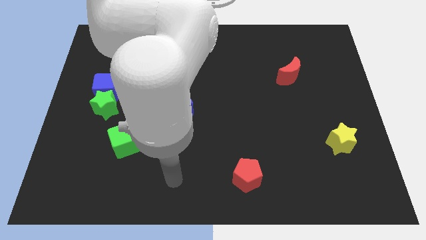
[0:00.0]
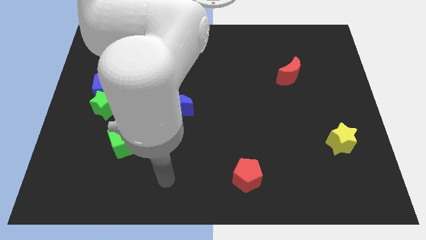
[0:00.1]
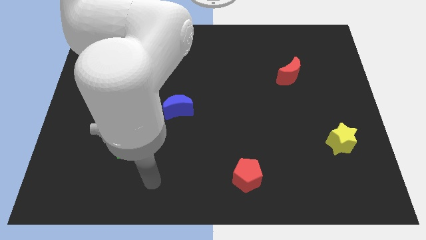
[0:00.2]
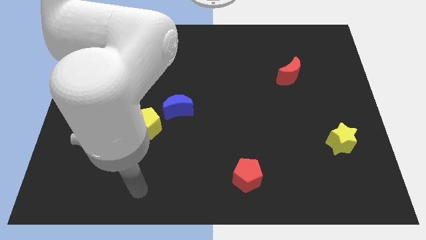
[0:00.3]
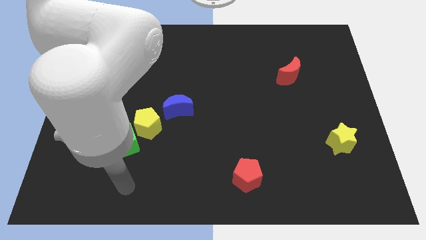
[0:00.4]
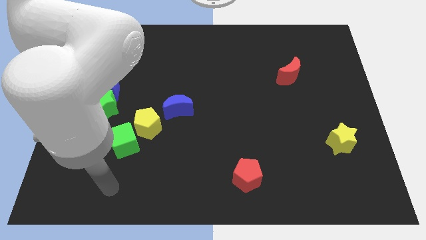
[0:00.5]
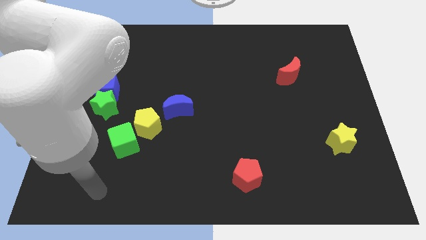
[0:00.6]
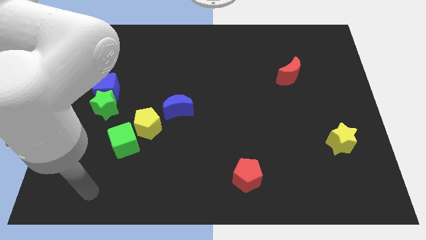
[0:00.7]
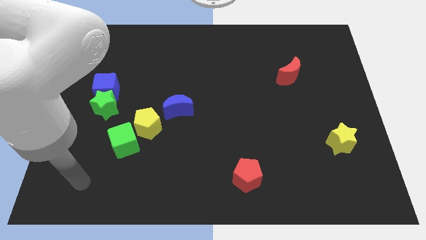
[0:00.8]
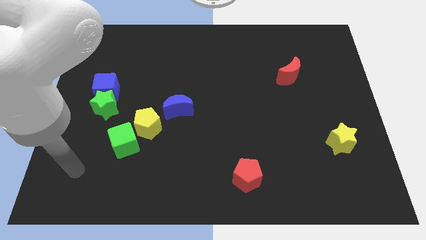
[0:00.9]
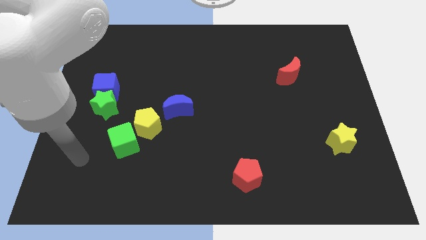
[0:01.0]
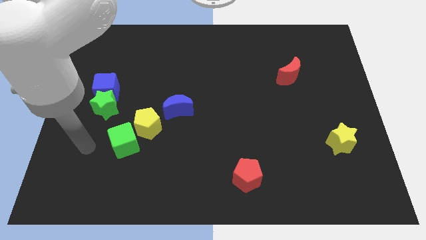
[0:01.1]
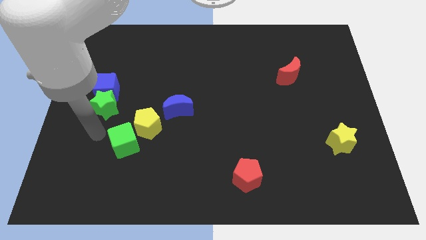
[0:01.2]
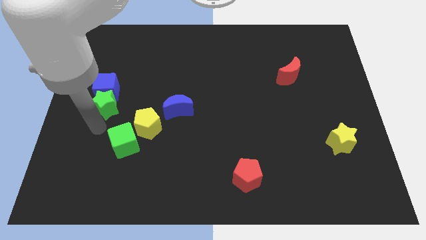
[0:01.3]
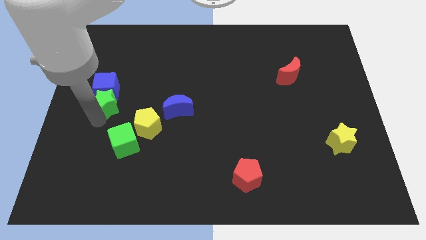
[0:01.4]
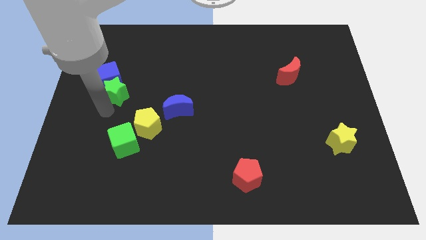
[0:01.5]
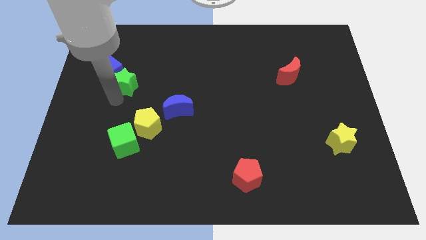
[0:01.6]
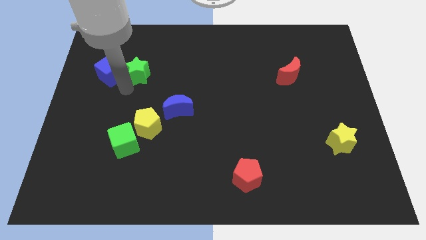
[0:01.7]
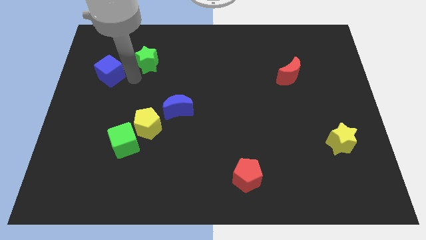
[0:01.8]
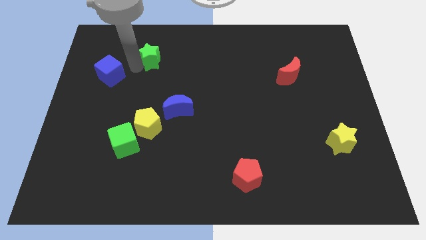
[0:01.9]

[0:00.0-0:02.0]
move the blue cube away from the green star

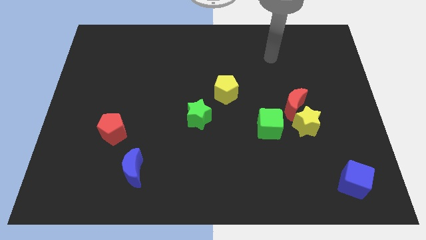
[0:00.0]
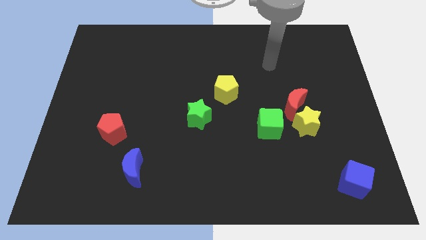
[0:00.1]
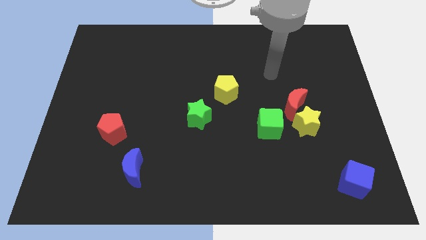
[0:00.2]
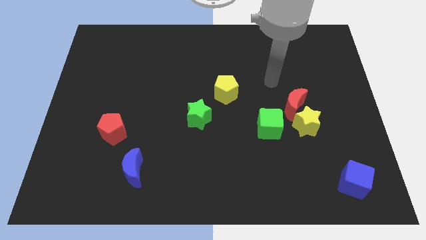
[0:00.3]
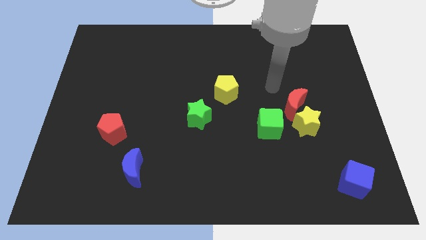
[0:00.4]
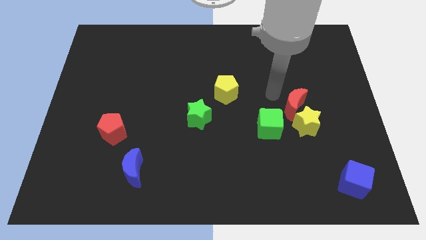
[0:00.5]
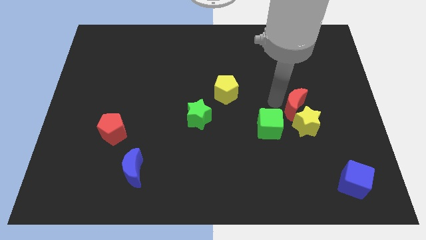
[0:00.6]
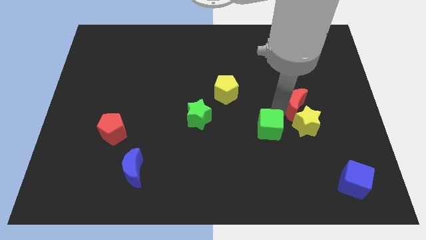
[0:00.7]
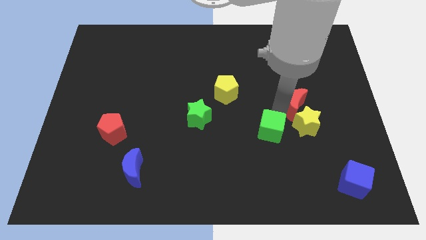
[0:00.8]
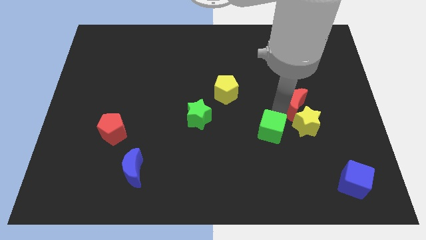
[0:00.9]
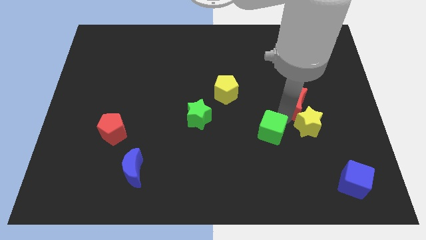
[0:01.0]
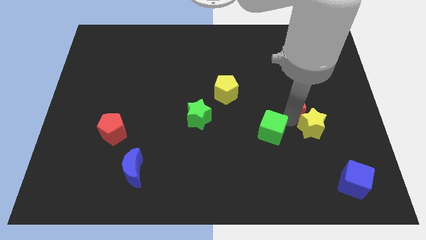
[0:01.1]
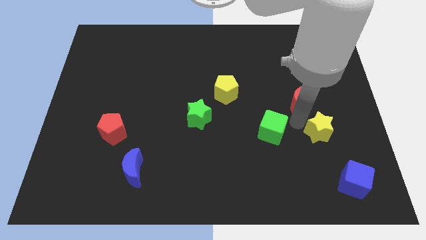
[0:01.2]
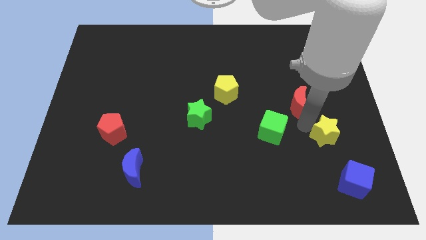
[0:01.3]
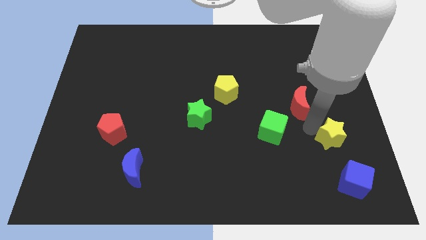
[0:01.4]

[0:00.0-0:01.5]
pull the yellow star apart from the red moon and green cube

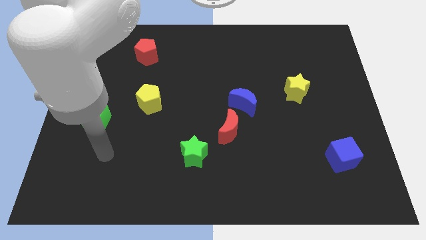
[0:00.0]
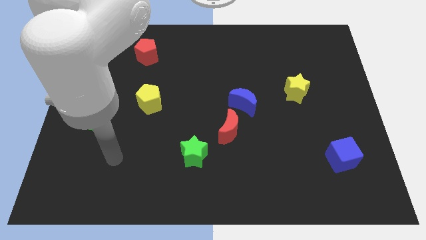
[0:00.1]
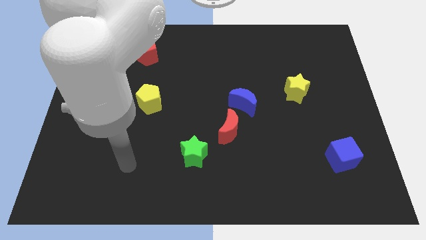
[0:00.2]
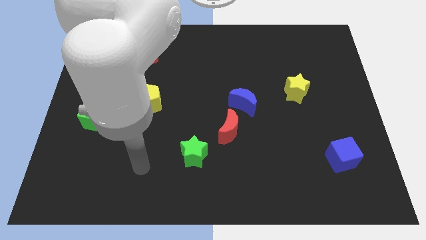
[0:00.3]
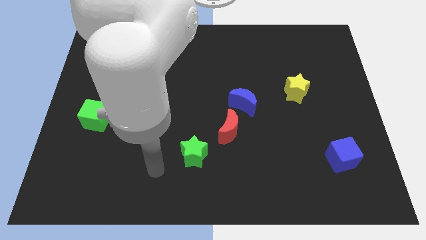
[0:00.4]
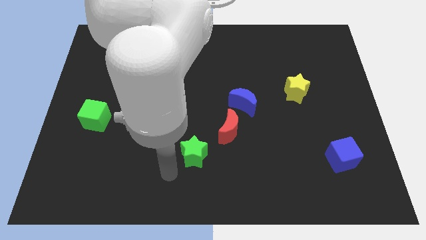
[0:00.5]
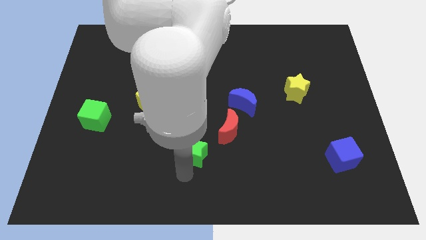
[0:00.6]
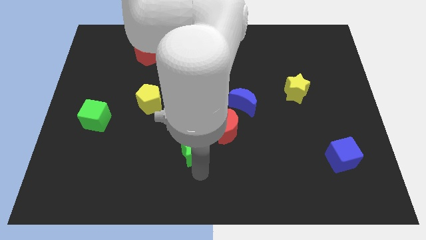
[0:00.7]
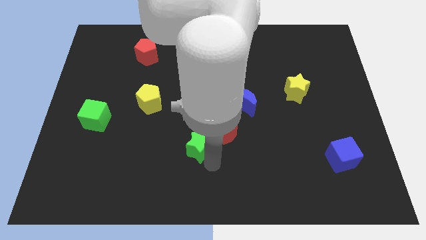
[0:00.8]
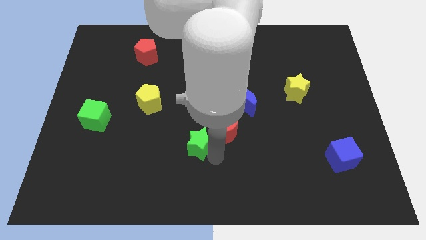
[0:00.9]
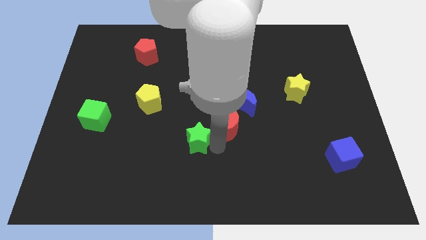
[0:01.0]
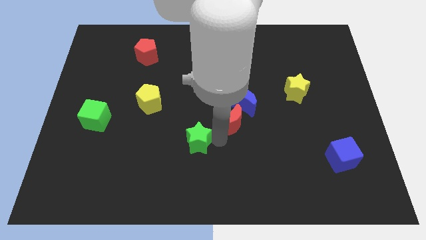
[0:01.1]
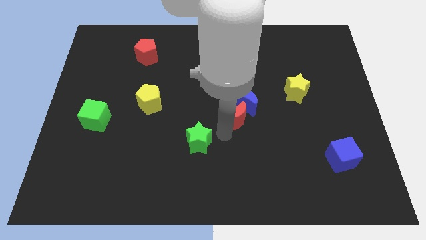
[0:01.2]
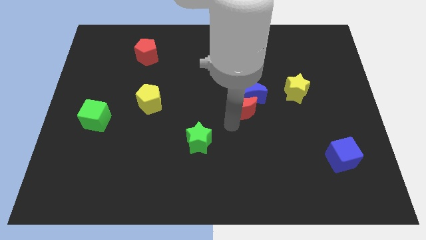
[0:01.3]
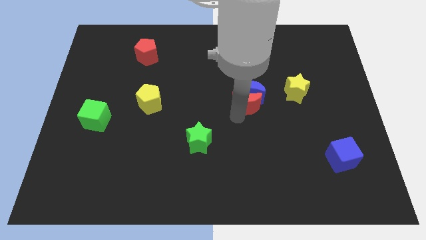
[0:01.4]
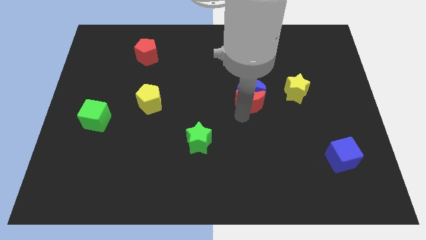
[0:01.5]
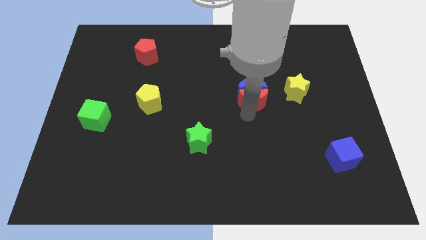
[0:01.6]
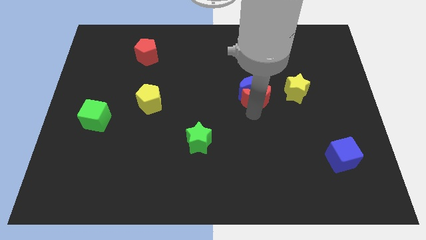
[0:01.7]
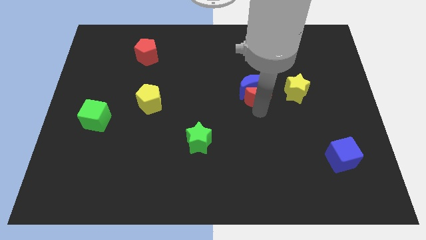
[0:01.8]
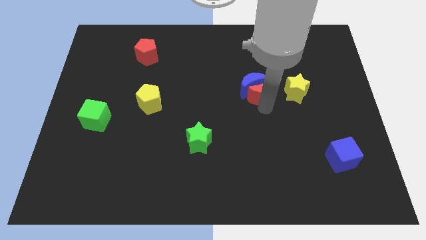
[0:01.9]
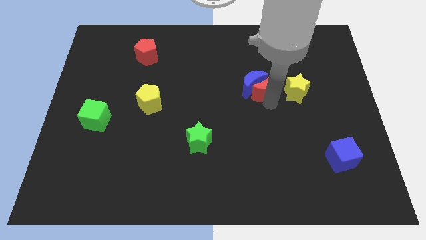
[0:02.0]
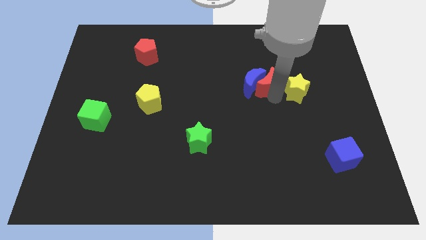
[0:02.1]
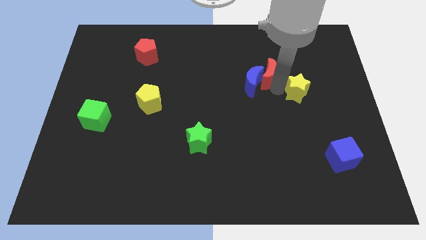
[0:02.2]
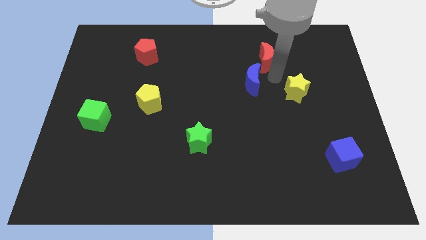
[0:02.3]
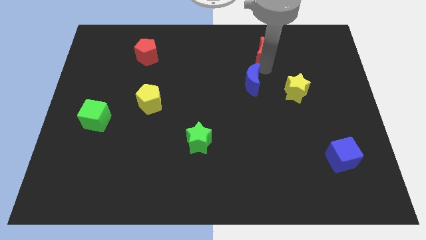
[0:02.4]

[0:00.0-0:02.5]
pull the blue moon apart from the red moon

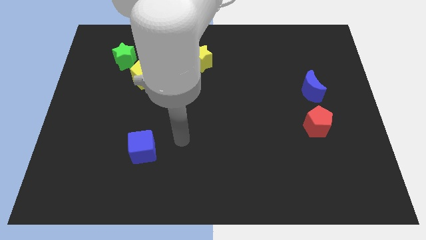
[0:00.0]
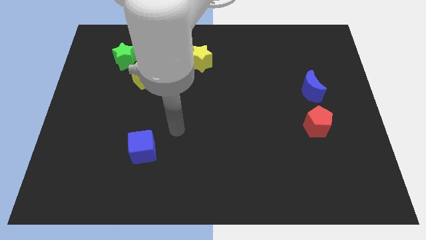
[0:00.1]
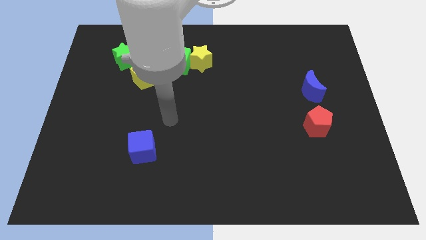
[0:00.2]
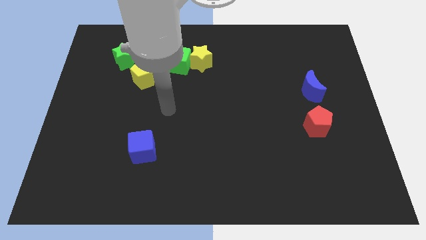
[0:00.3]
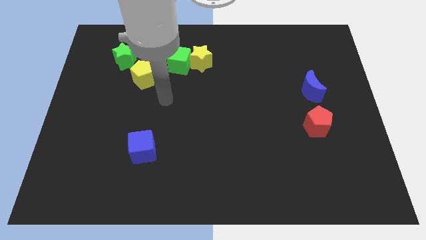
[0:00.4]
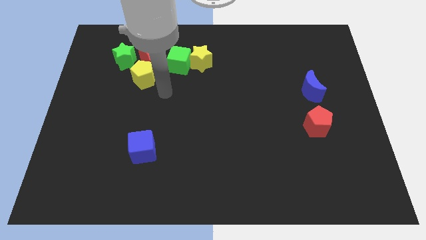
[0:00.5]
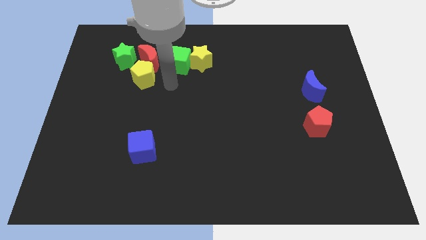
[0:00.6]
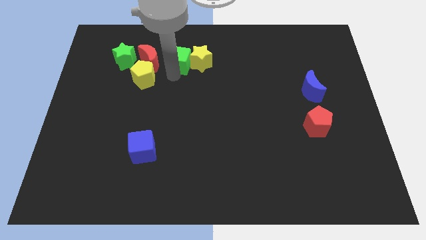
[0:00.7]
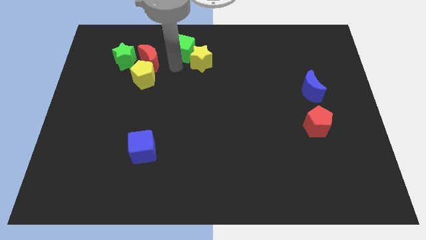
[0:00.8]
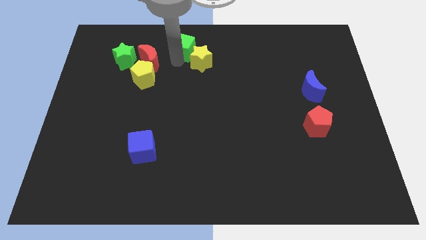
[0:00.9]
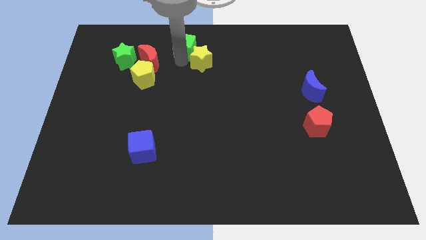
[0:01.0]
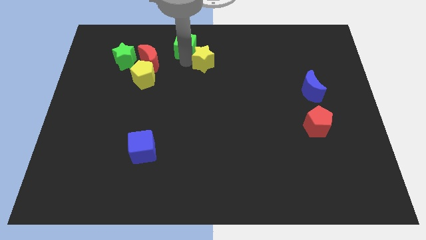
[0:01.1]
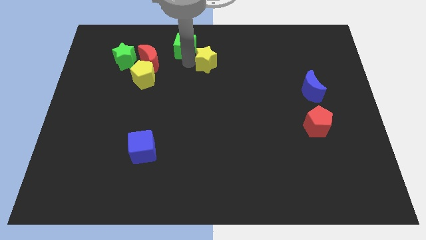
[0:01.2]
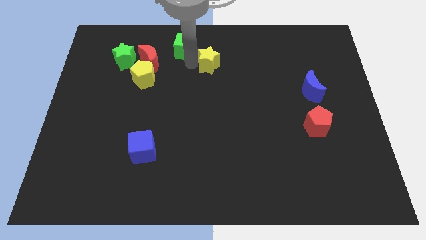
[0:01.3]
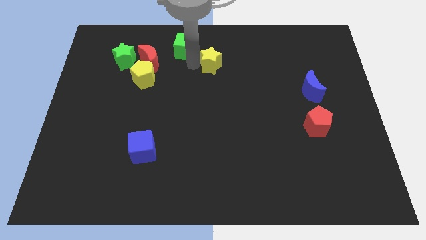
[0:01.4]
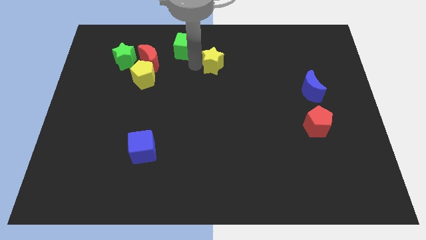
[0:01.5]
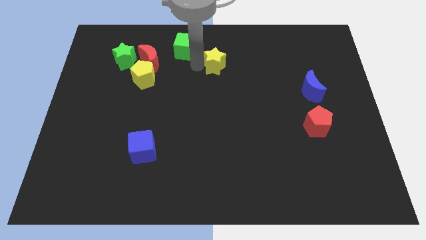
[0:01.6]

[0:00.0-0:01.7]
separate the yellow star from the green cube

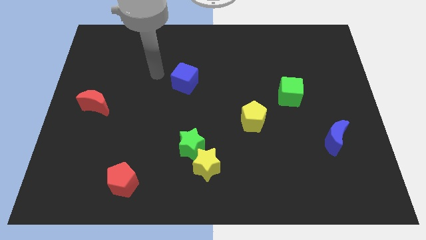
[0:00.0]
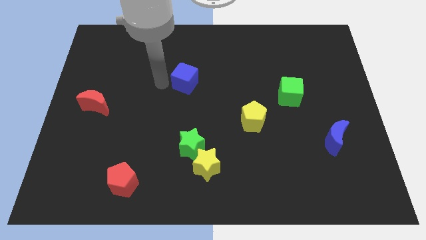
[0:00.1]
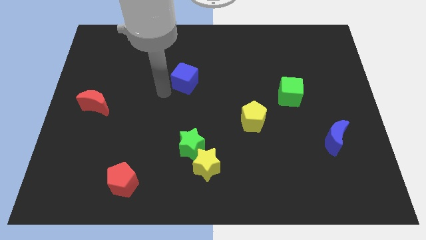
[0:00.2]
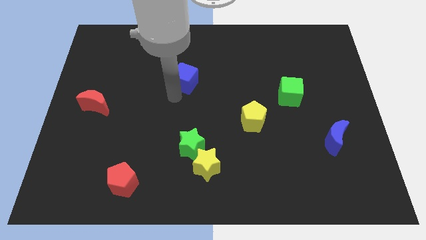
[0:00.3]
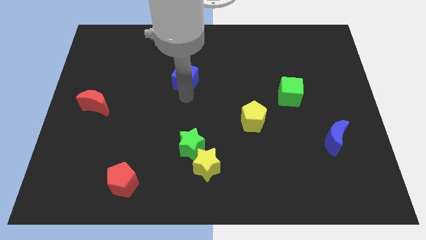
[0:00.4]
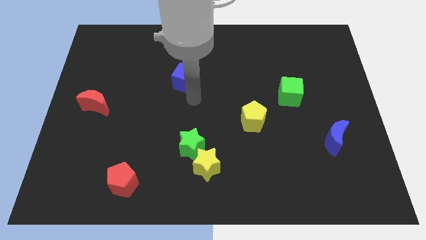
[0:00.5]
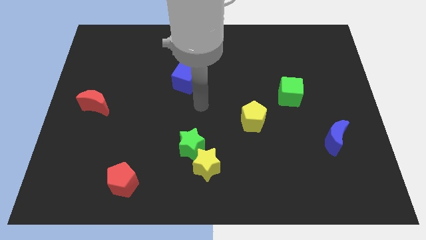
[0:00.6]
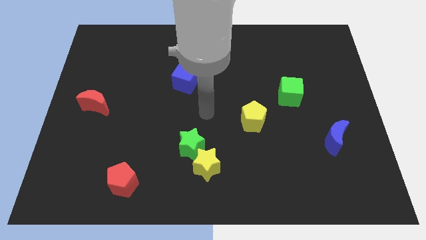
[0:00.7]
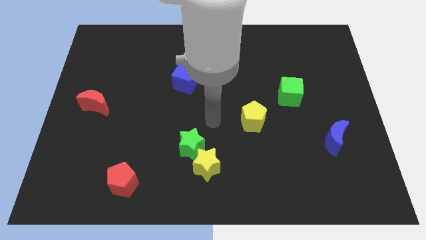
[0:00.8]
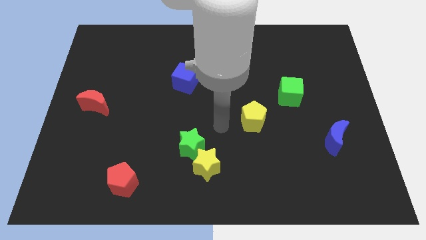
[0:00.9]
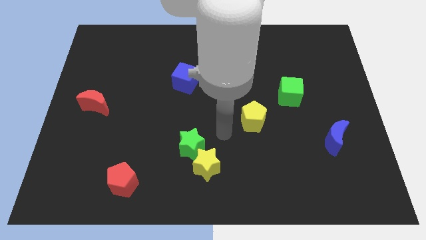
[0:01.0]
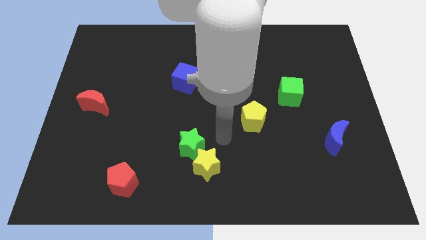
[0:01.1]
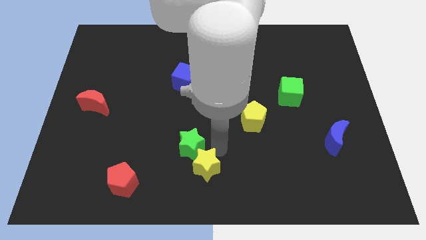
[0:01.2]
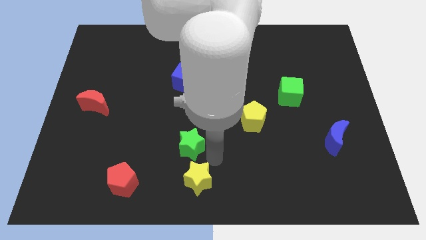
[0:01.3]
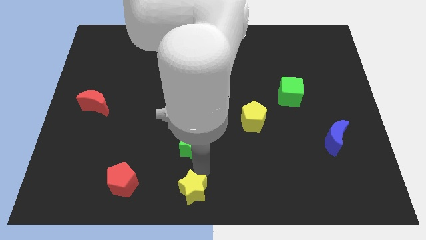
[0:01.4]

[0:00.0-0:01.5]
move the green star away from the yellow star

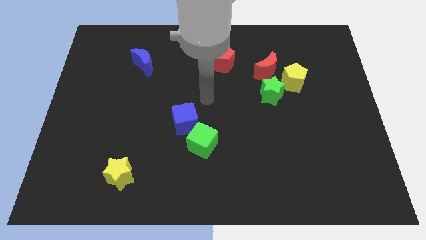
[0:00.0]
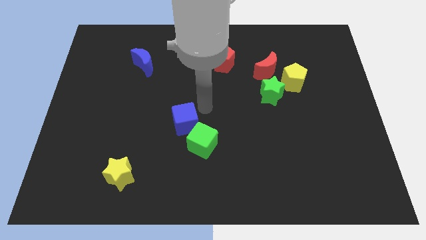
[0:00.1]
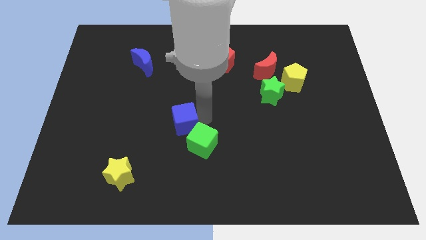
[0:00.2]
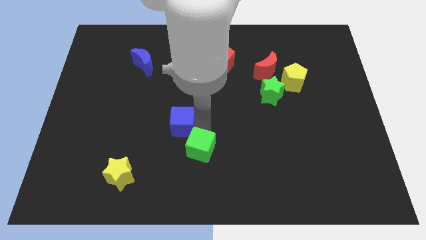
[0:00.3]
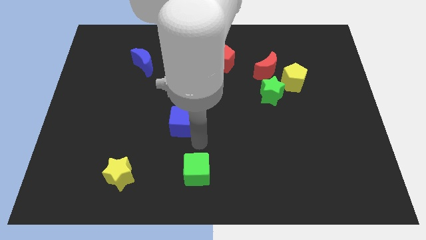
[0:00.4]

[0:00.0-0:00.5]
separate the blue cube from the green cube
